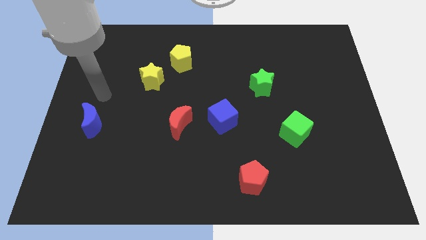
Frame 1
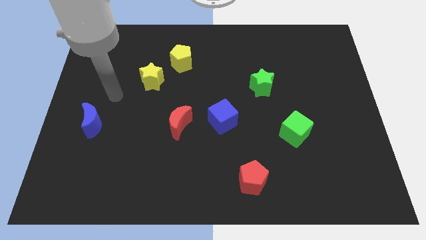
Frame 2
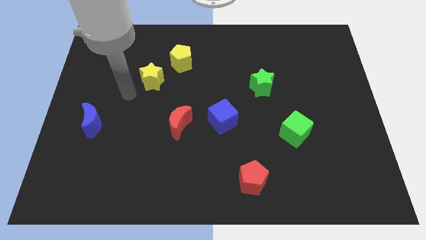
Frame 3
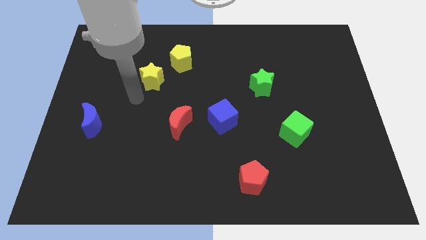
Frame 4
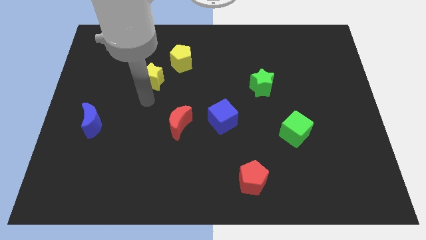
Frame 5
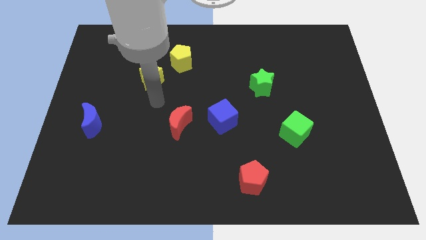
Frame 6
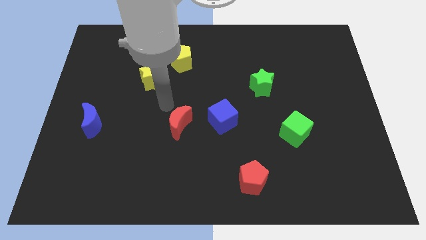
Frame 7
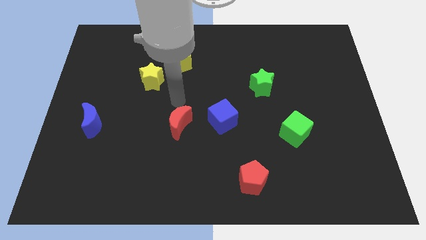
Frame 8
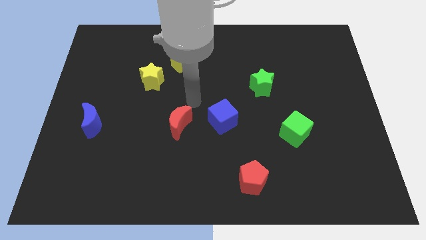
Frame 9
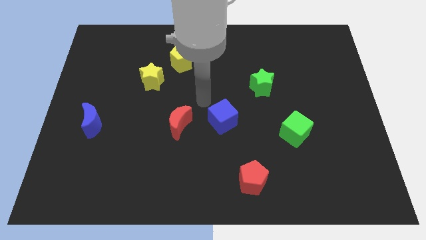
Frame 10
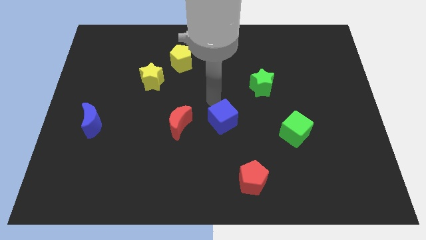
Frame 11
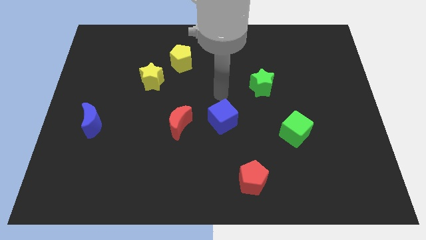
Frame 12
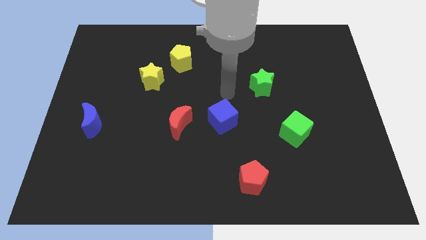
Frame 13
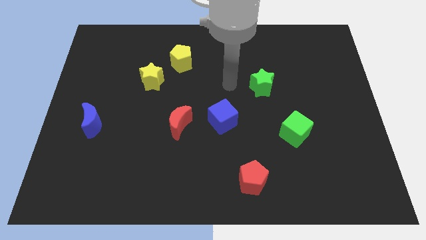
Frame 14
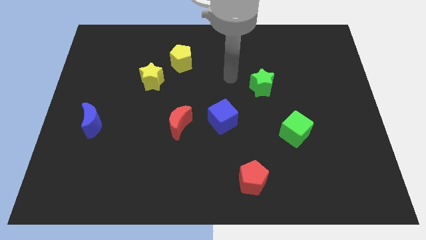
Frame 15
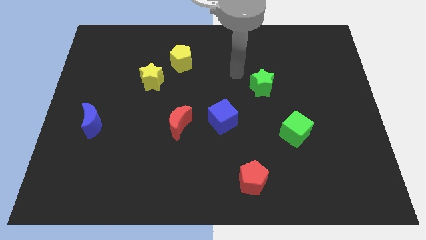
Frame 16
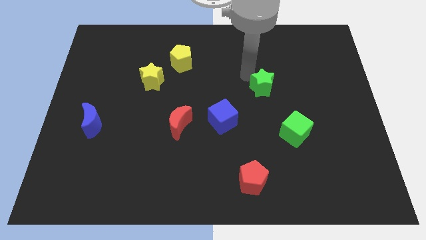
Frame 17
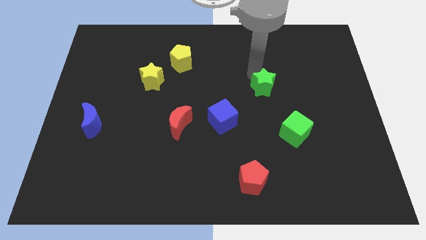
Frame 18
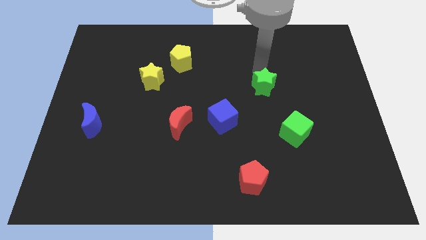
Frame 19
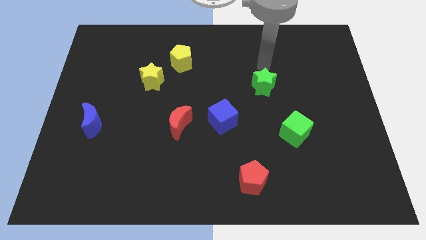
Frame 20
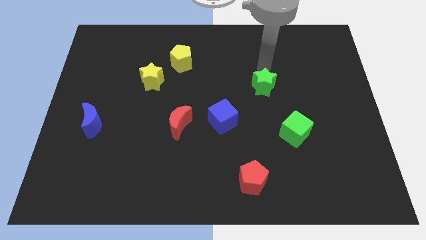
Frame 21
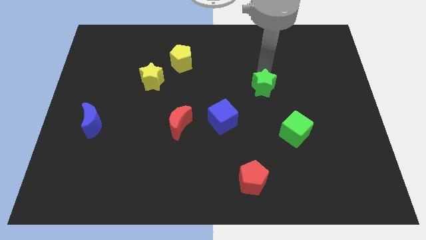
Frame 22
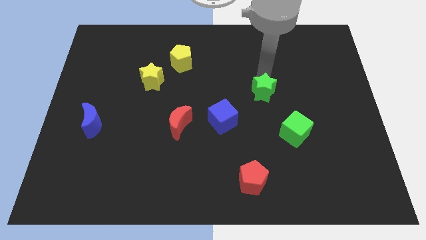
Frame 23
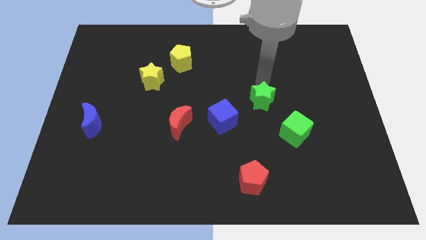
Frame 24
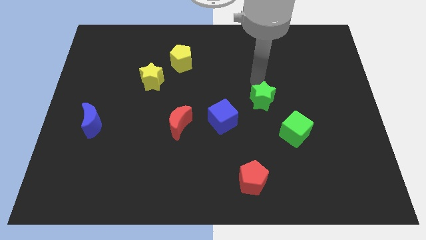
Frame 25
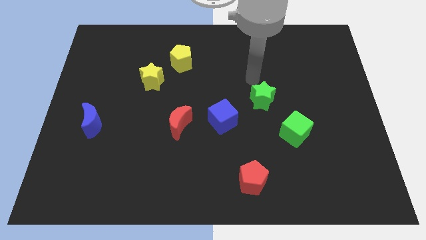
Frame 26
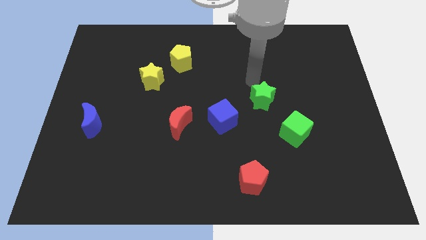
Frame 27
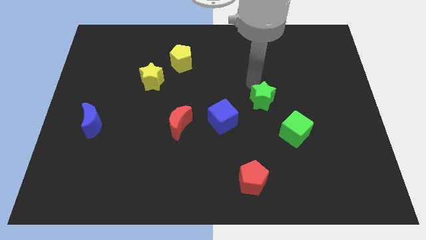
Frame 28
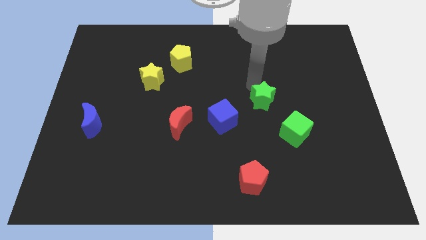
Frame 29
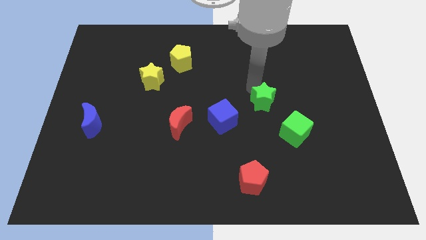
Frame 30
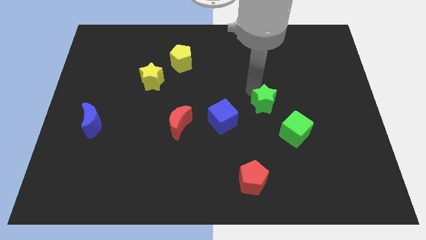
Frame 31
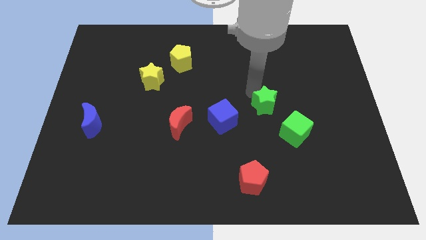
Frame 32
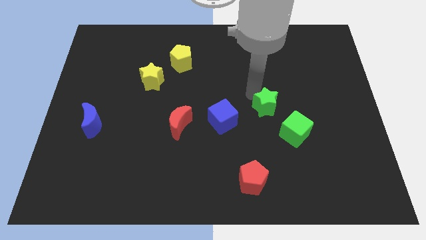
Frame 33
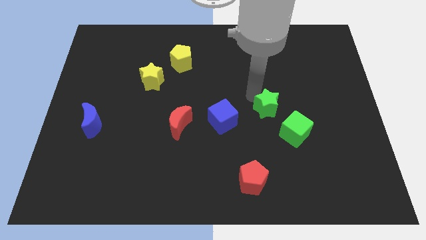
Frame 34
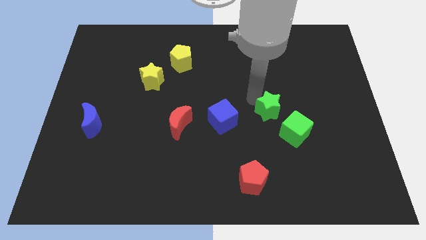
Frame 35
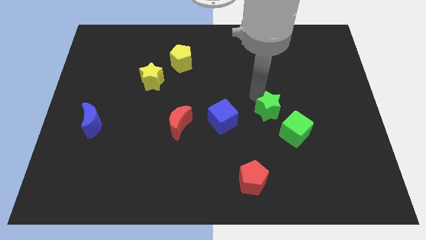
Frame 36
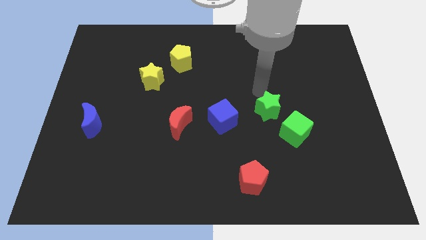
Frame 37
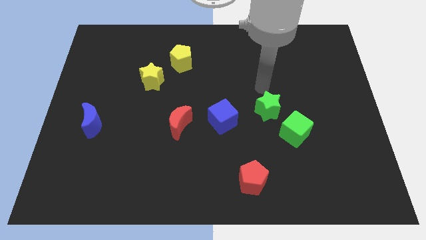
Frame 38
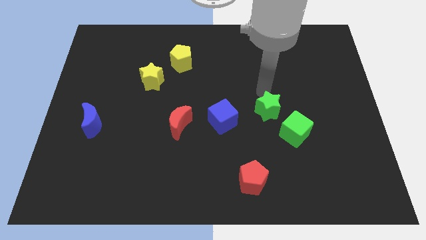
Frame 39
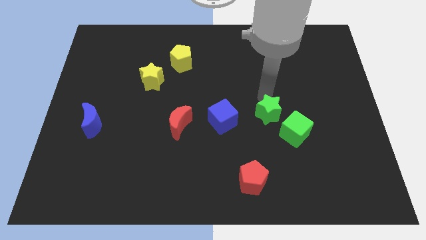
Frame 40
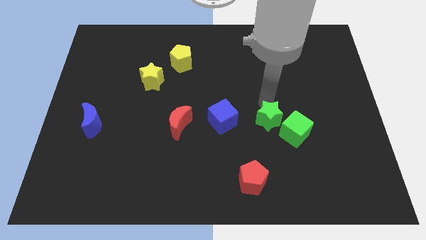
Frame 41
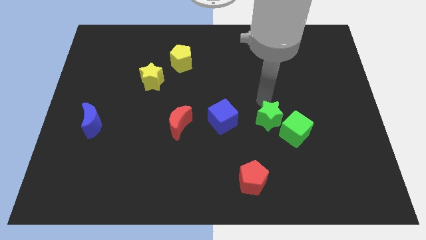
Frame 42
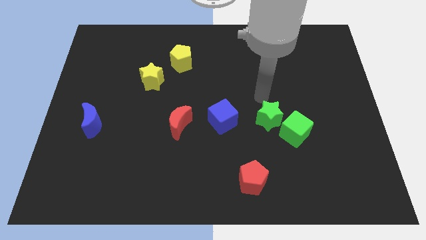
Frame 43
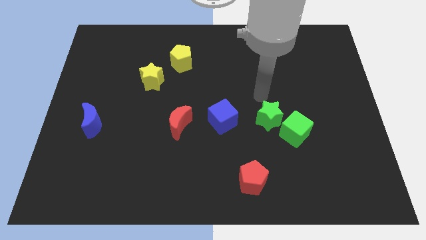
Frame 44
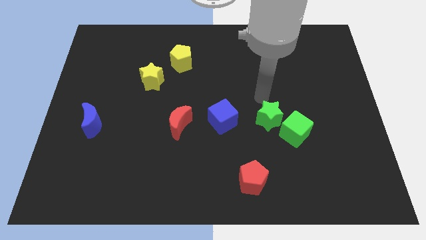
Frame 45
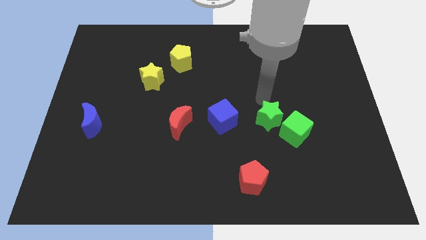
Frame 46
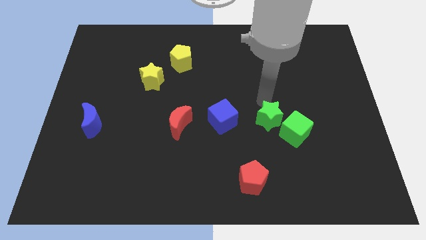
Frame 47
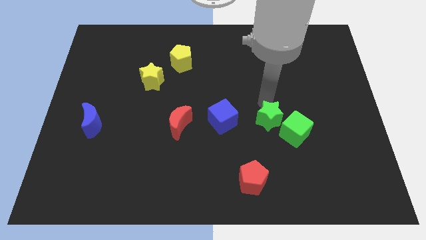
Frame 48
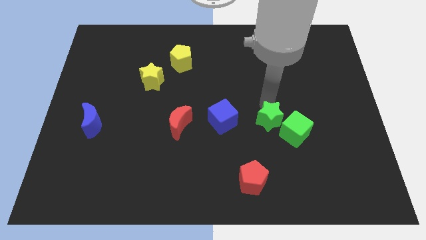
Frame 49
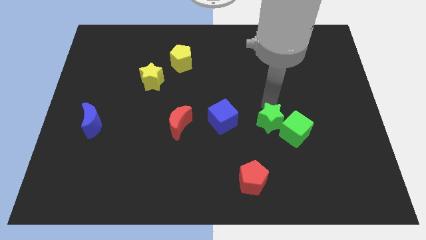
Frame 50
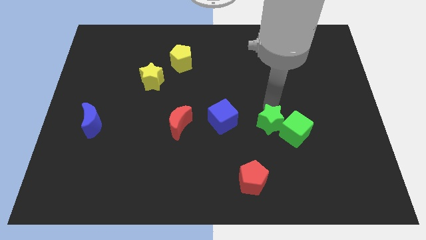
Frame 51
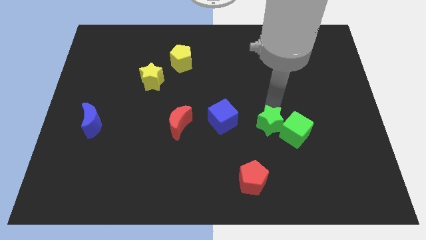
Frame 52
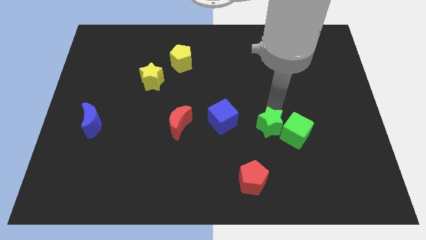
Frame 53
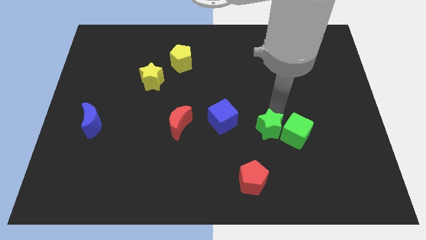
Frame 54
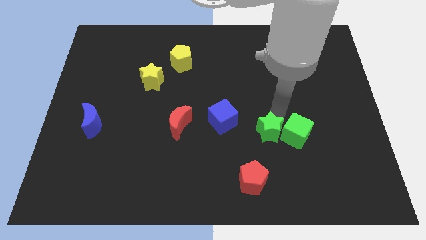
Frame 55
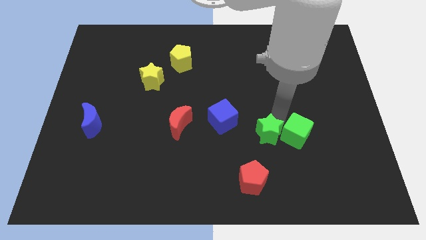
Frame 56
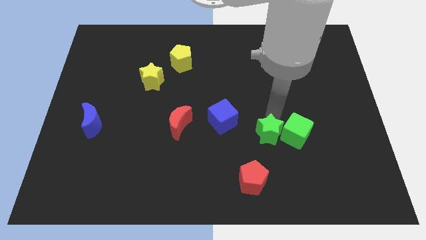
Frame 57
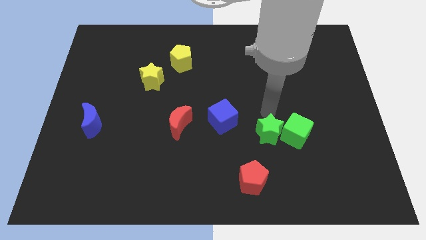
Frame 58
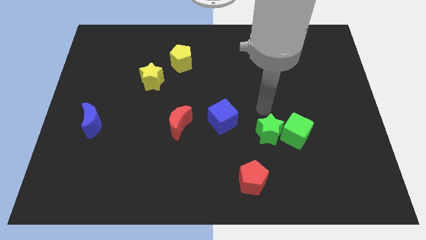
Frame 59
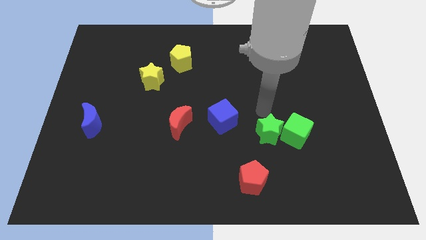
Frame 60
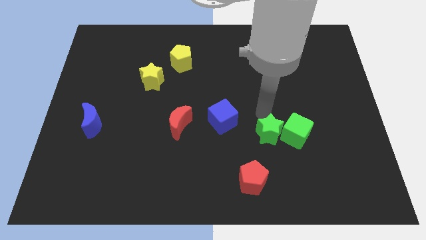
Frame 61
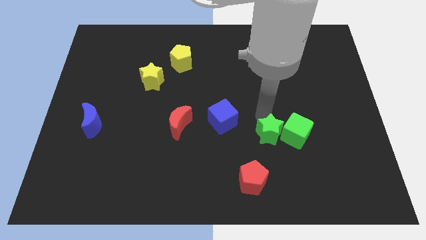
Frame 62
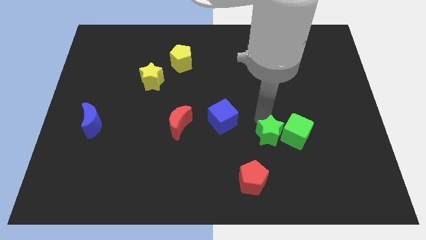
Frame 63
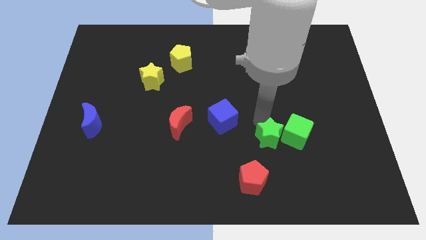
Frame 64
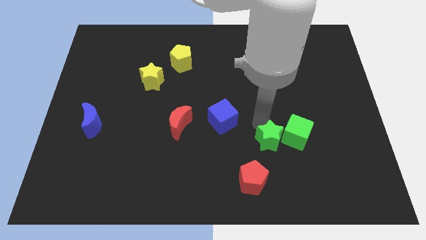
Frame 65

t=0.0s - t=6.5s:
push the green star to the top right side of the red pentagon

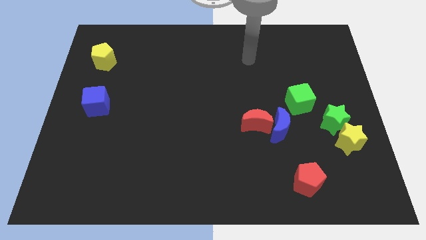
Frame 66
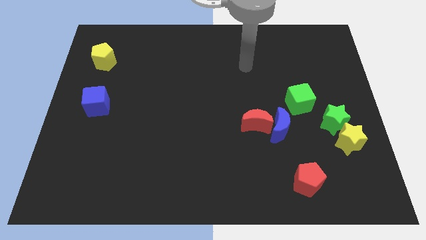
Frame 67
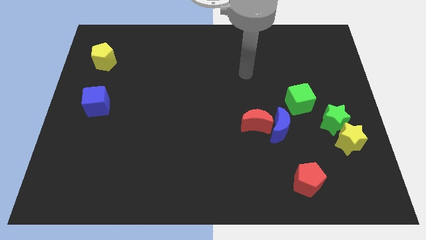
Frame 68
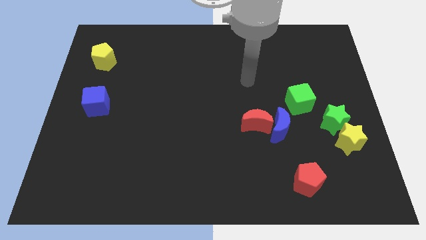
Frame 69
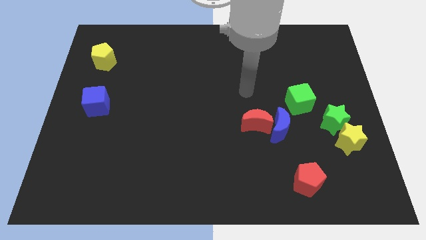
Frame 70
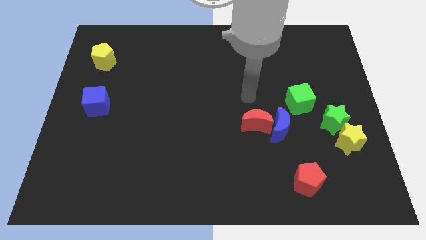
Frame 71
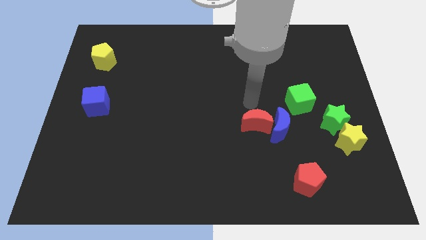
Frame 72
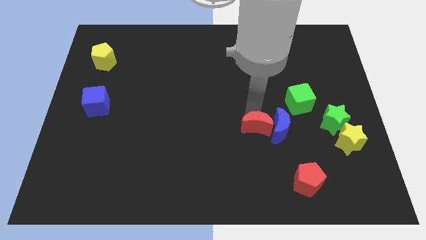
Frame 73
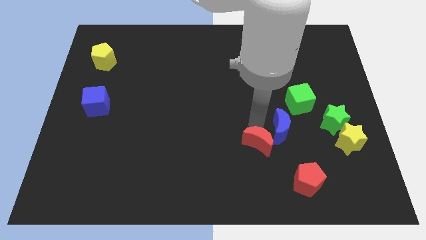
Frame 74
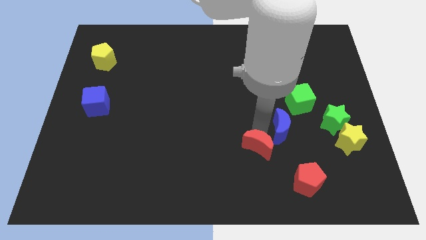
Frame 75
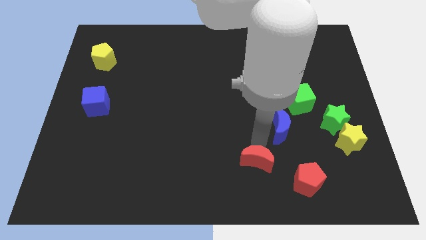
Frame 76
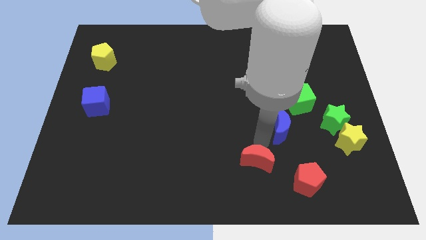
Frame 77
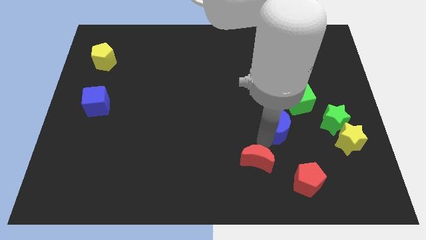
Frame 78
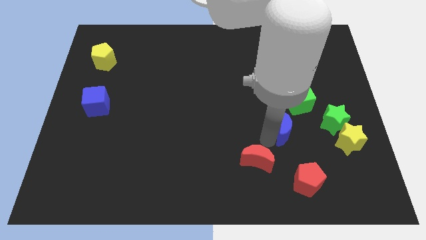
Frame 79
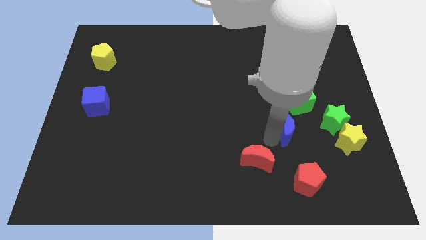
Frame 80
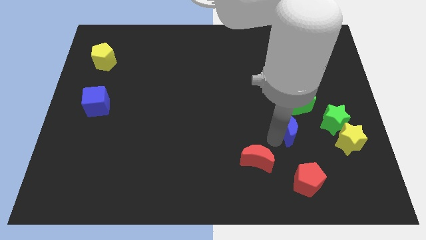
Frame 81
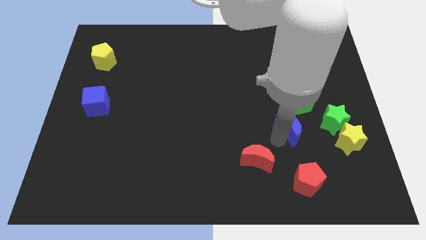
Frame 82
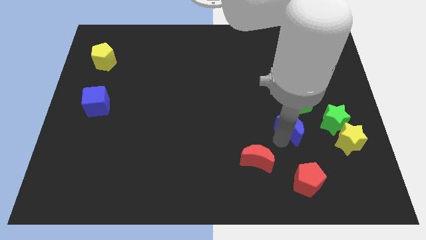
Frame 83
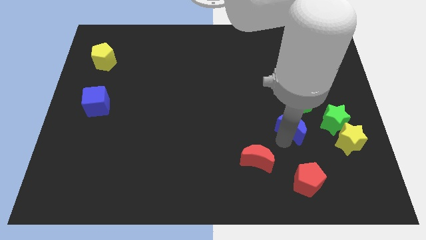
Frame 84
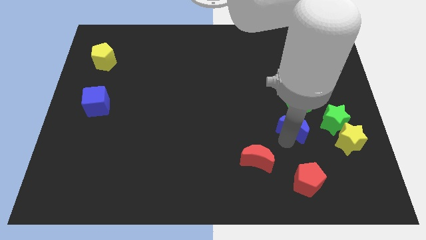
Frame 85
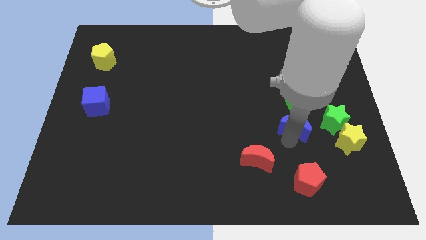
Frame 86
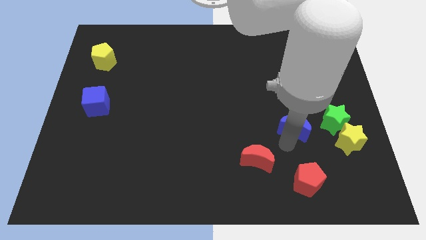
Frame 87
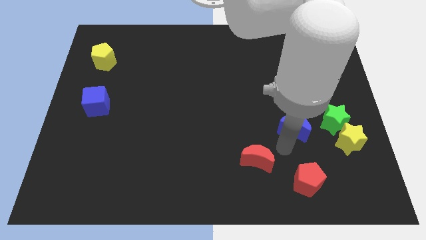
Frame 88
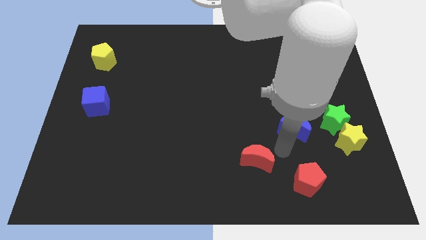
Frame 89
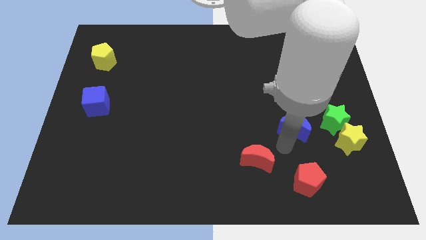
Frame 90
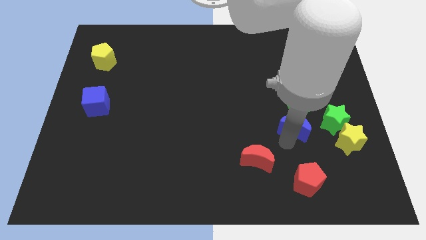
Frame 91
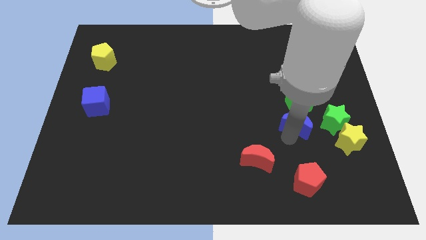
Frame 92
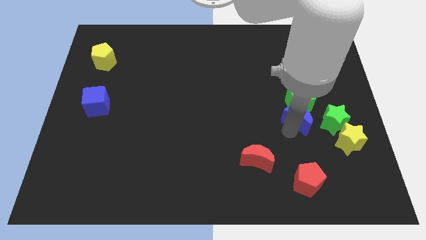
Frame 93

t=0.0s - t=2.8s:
slide the blue moon to the top left of the yellow star
